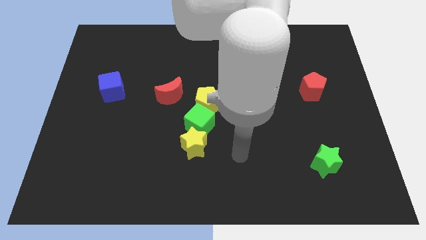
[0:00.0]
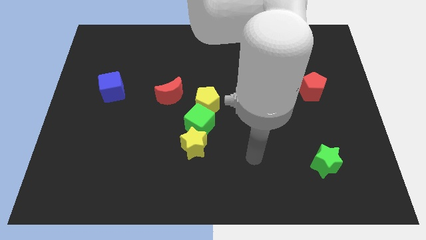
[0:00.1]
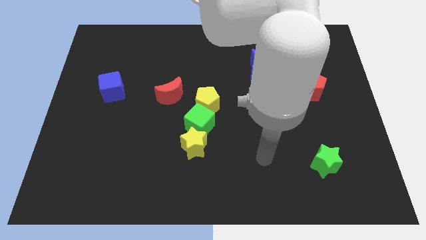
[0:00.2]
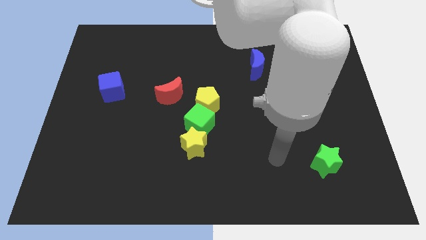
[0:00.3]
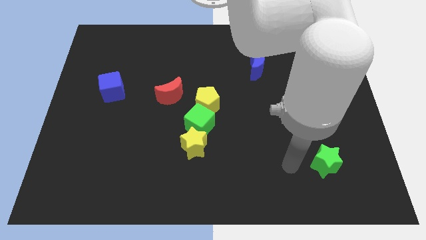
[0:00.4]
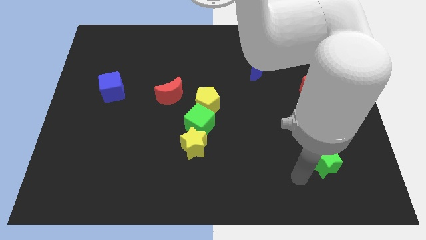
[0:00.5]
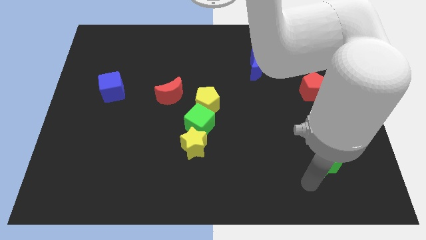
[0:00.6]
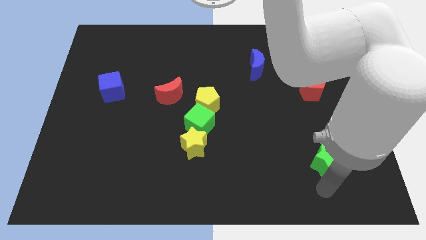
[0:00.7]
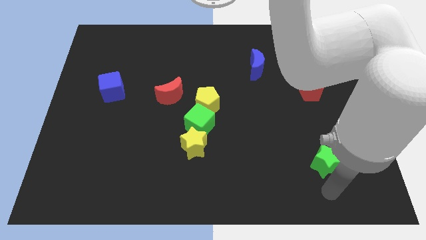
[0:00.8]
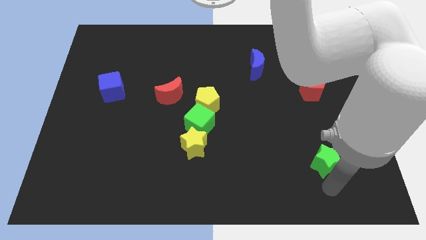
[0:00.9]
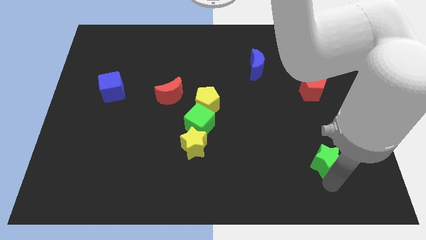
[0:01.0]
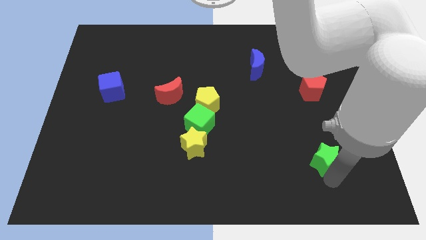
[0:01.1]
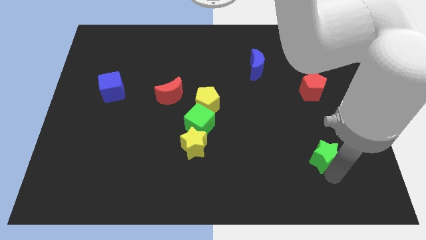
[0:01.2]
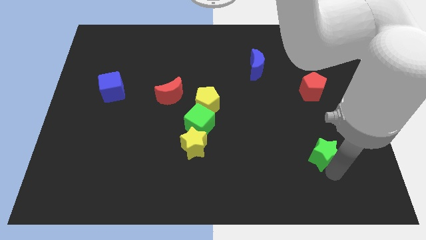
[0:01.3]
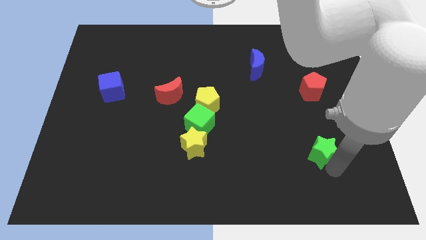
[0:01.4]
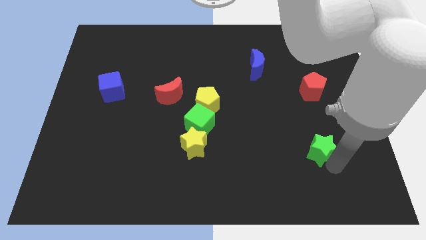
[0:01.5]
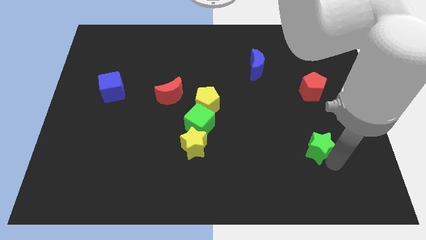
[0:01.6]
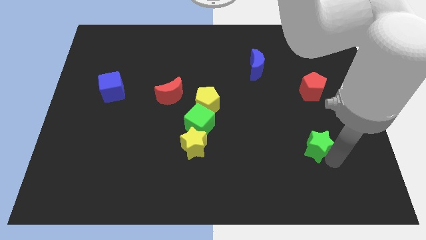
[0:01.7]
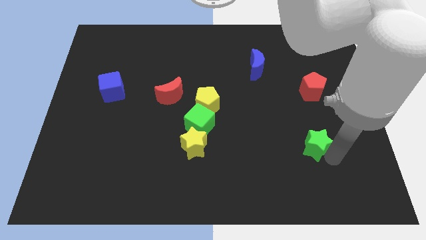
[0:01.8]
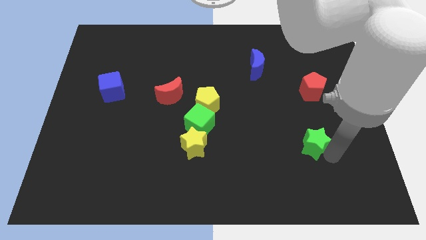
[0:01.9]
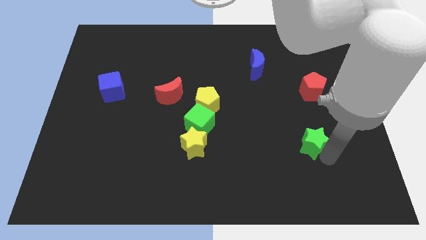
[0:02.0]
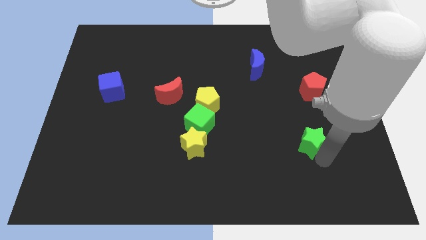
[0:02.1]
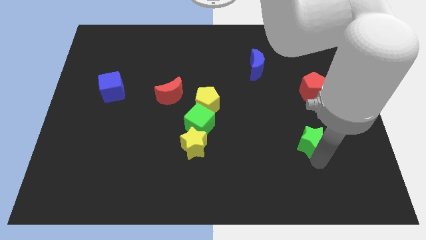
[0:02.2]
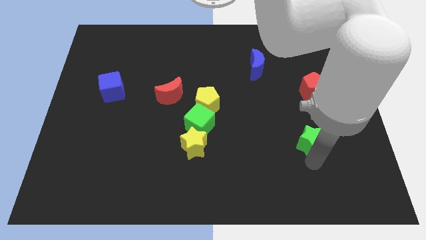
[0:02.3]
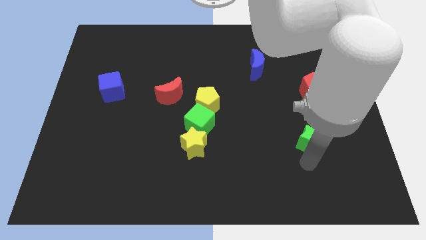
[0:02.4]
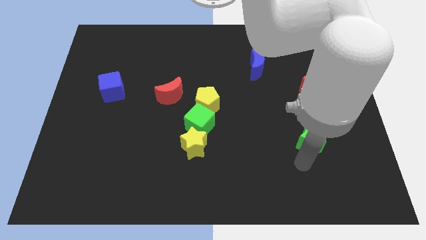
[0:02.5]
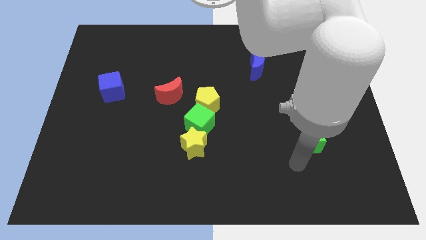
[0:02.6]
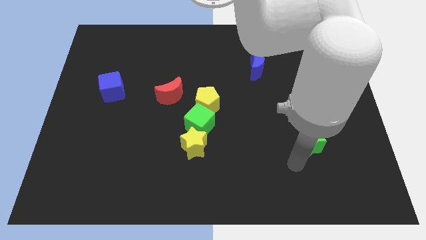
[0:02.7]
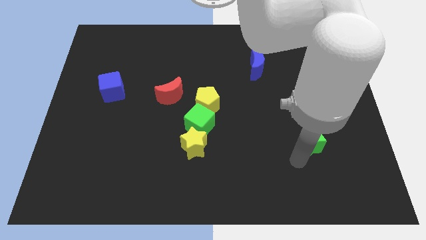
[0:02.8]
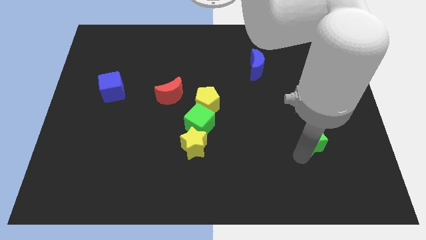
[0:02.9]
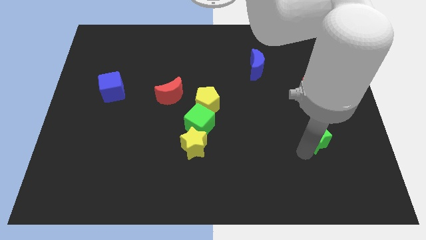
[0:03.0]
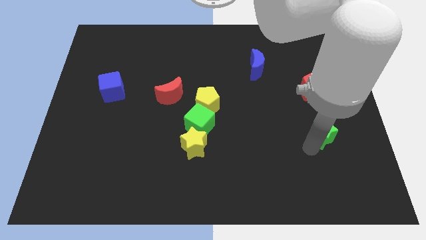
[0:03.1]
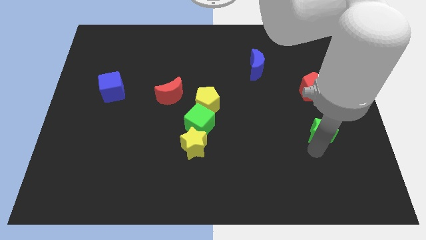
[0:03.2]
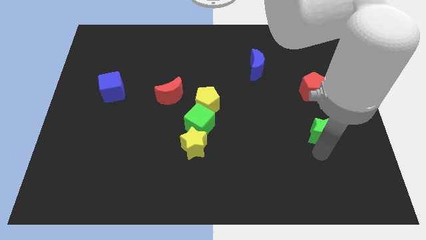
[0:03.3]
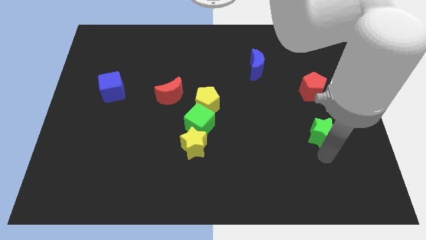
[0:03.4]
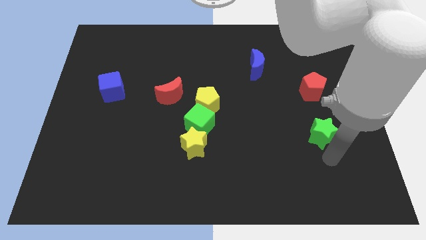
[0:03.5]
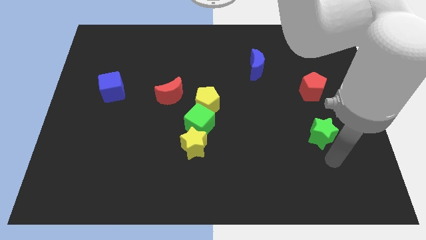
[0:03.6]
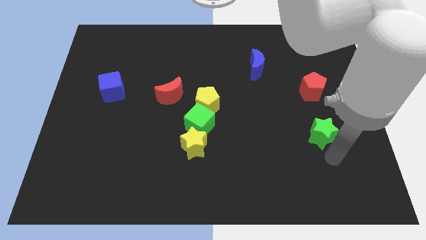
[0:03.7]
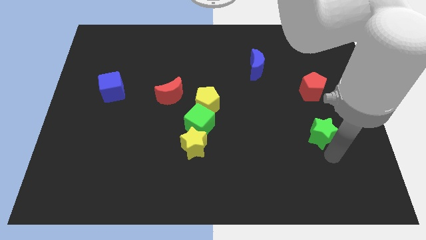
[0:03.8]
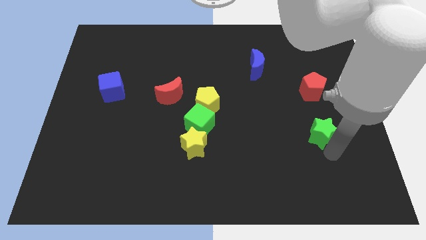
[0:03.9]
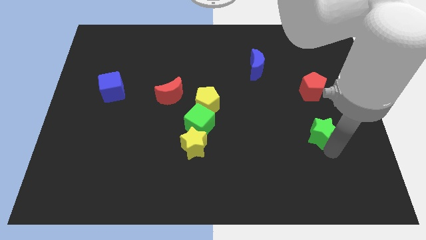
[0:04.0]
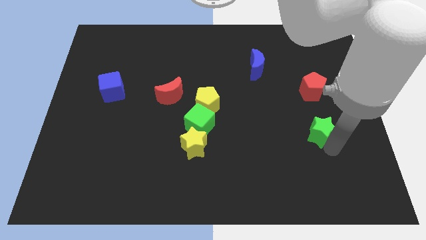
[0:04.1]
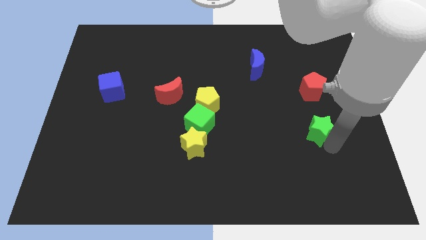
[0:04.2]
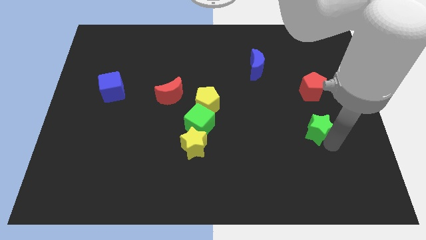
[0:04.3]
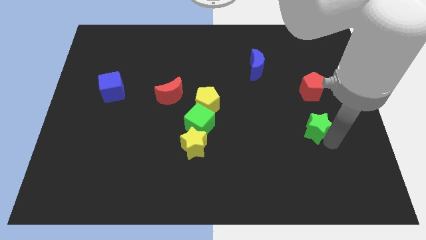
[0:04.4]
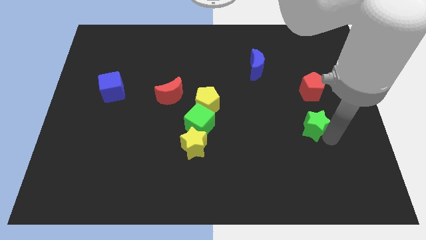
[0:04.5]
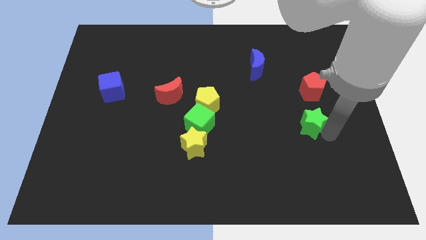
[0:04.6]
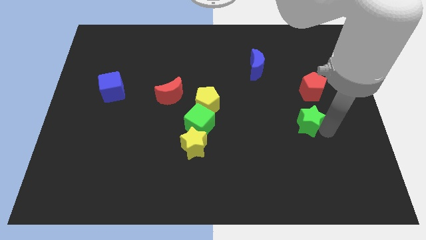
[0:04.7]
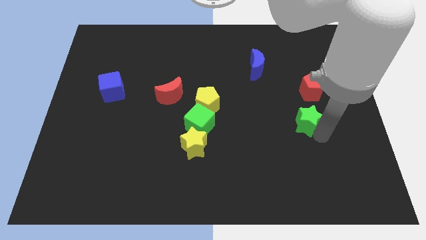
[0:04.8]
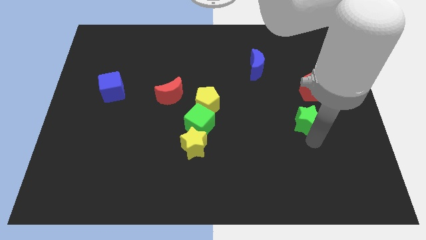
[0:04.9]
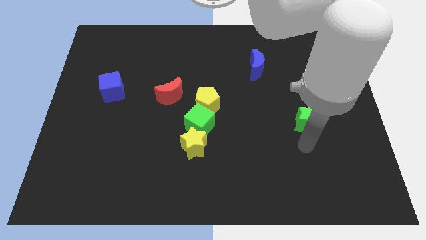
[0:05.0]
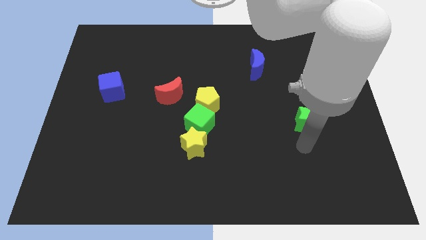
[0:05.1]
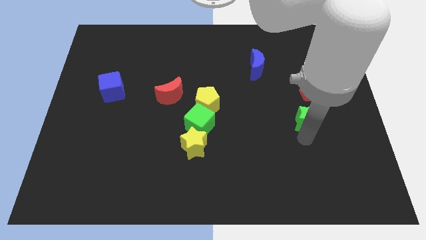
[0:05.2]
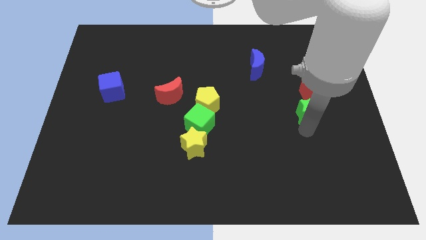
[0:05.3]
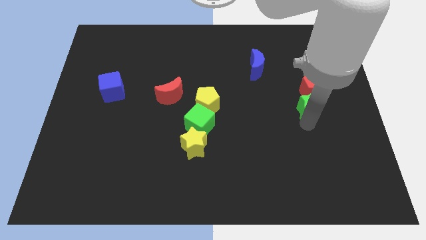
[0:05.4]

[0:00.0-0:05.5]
put the green star close to the red pentagon

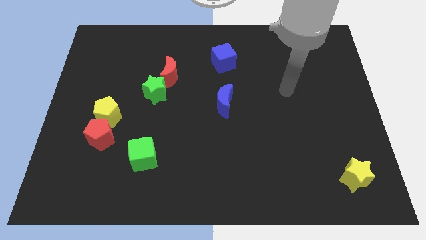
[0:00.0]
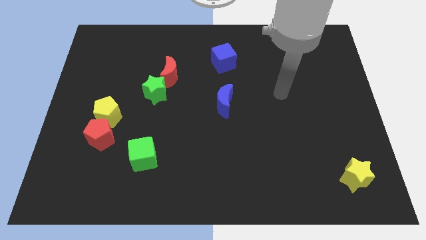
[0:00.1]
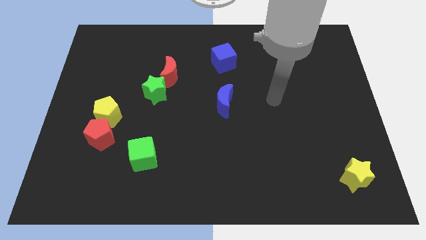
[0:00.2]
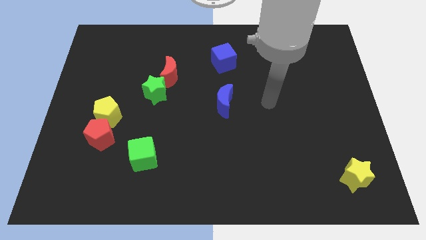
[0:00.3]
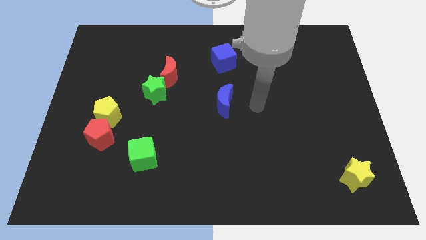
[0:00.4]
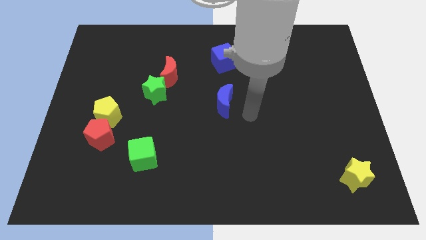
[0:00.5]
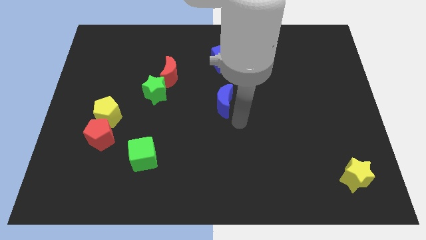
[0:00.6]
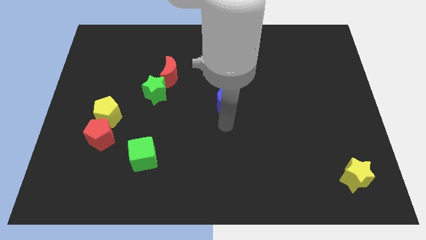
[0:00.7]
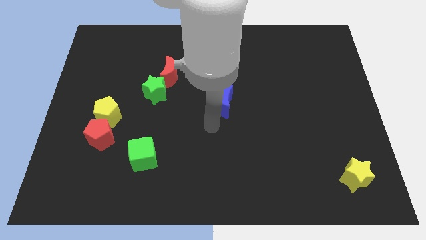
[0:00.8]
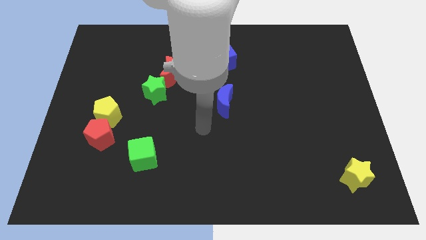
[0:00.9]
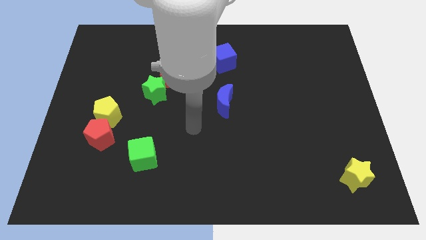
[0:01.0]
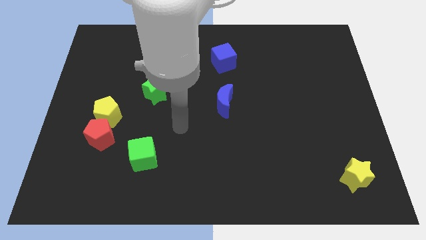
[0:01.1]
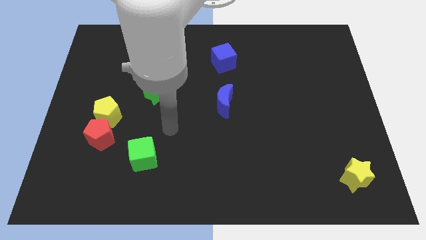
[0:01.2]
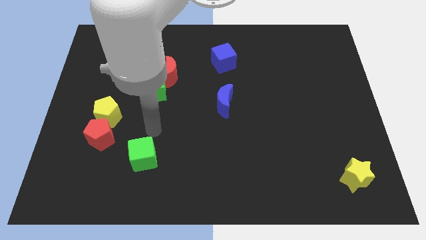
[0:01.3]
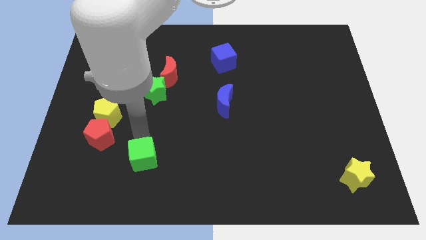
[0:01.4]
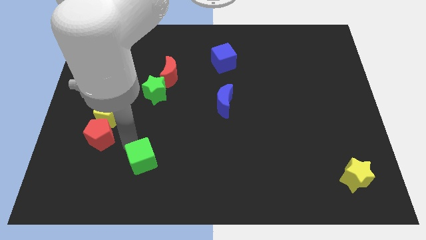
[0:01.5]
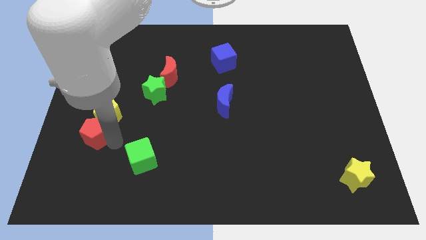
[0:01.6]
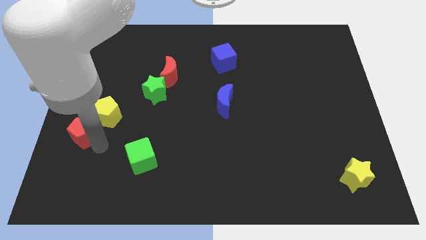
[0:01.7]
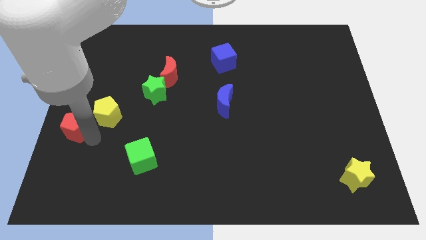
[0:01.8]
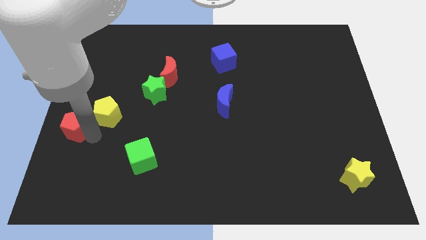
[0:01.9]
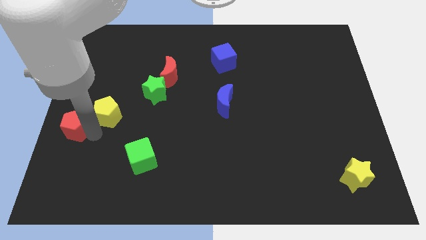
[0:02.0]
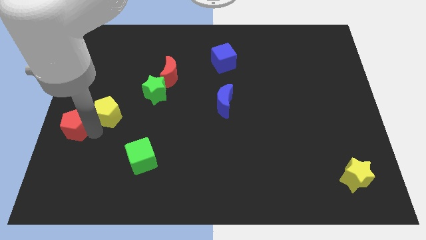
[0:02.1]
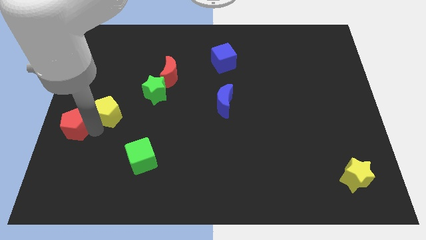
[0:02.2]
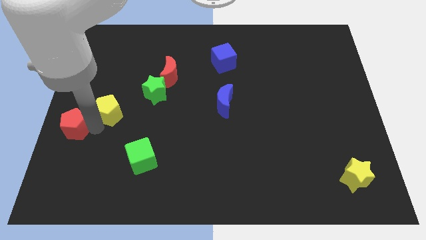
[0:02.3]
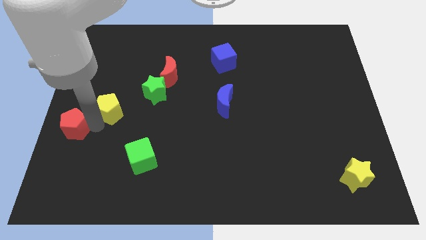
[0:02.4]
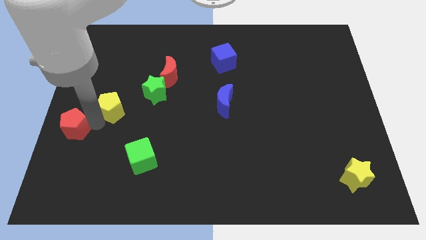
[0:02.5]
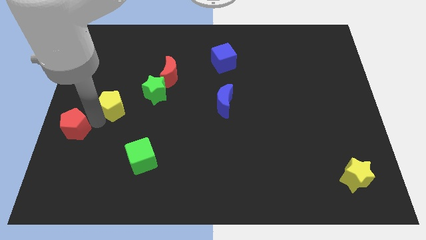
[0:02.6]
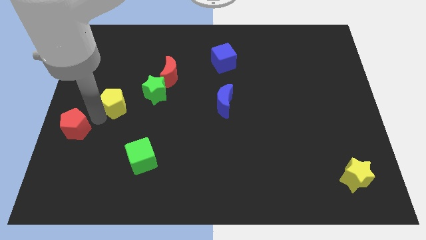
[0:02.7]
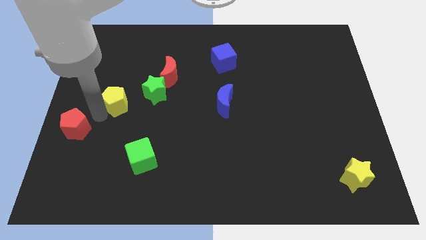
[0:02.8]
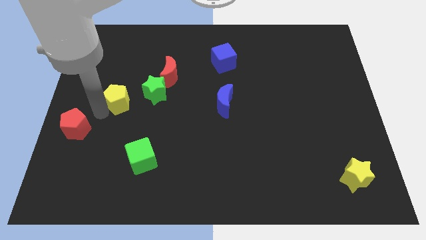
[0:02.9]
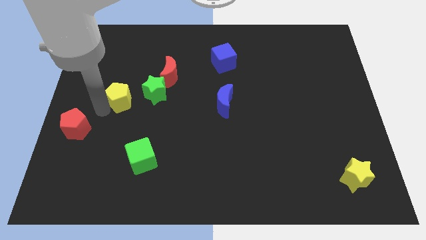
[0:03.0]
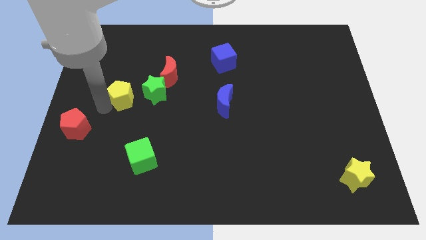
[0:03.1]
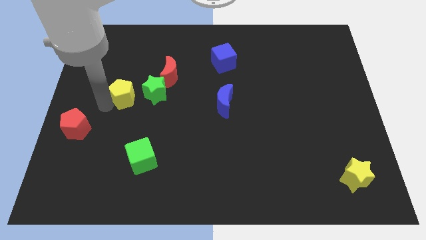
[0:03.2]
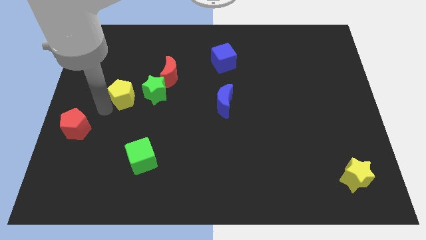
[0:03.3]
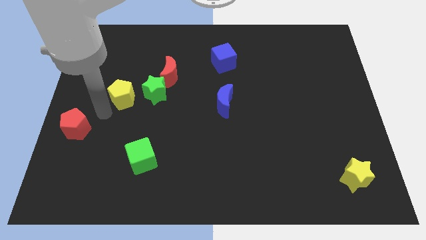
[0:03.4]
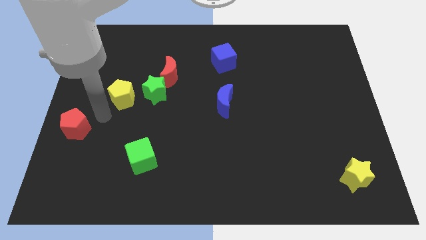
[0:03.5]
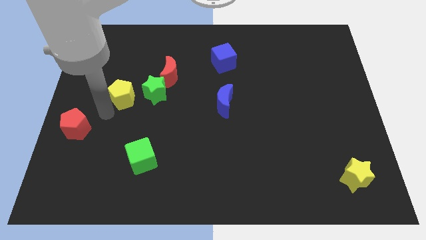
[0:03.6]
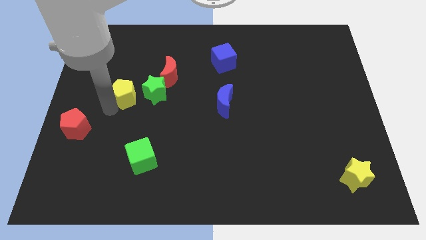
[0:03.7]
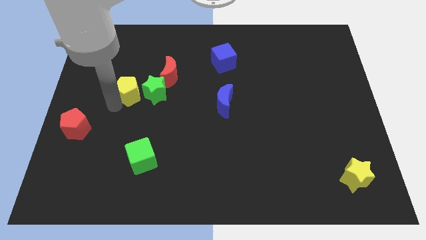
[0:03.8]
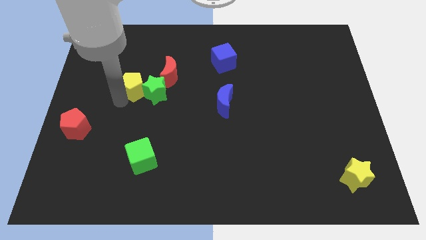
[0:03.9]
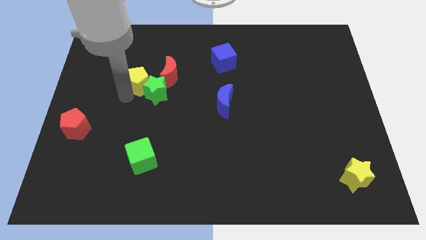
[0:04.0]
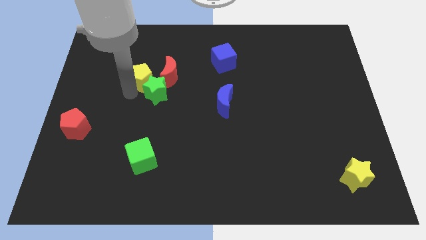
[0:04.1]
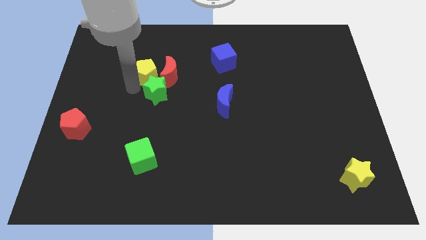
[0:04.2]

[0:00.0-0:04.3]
put the yellow pentagon next to the red moon
